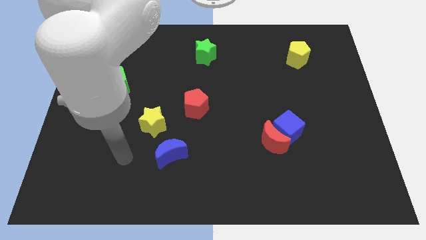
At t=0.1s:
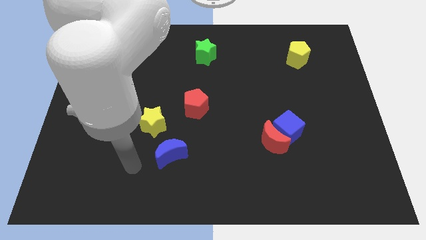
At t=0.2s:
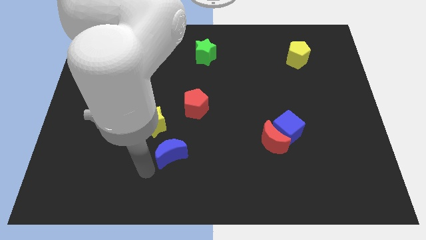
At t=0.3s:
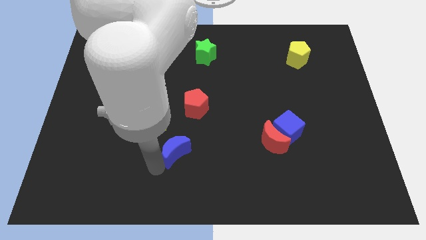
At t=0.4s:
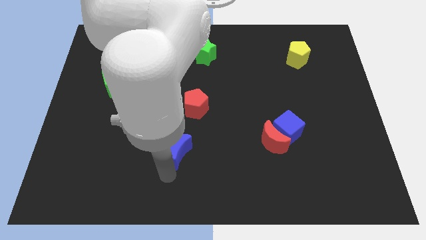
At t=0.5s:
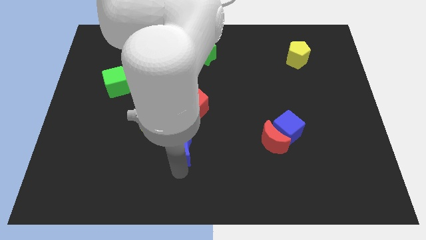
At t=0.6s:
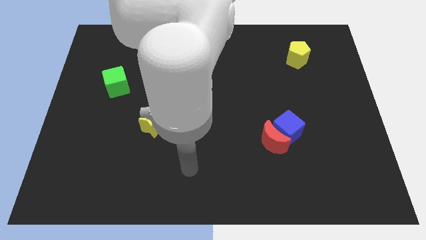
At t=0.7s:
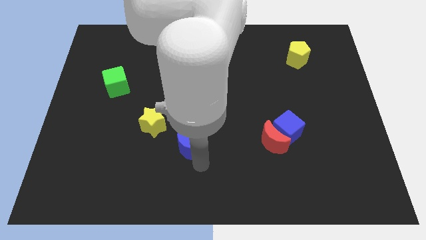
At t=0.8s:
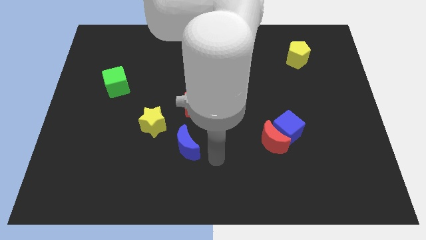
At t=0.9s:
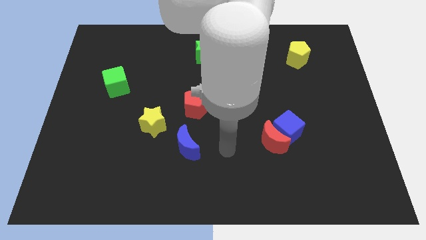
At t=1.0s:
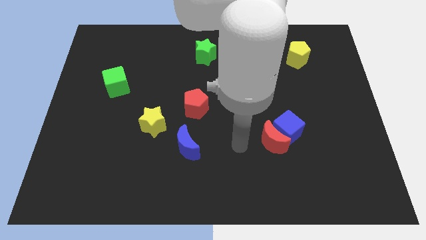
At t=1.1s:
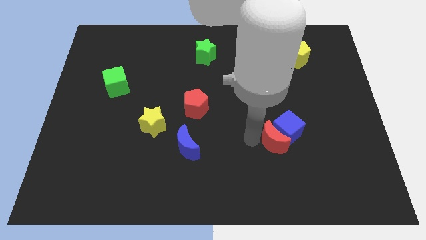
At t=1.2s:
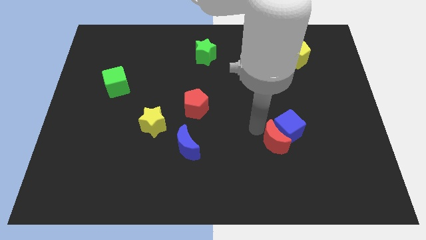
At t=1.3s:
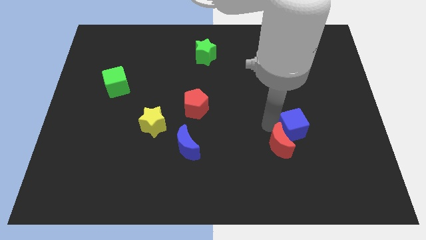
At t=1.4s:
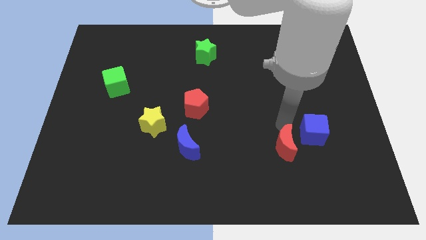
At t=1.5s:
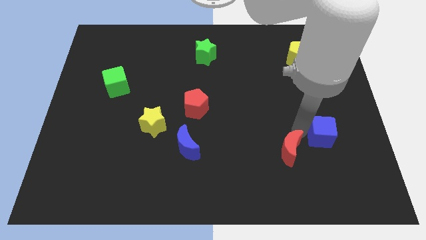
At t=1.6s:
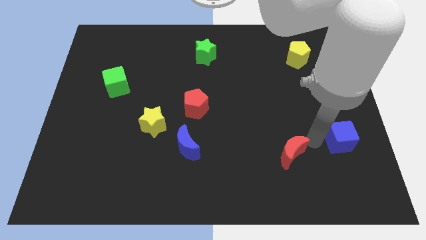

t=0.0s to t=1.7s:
separate the red moon from the blue cube

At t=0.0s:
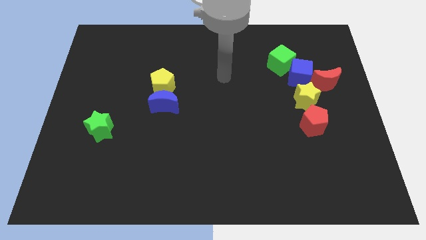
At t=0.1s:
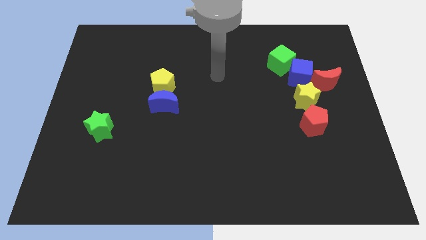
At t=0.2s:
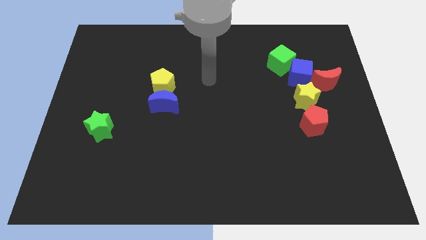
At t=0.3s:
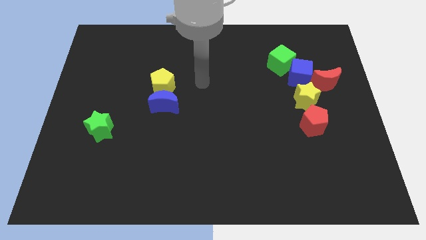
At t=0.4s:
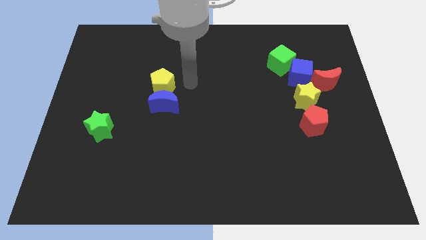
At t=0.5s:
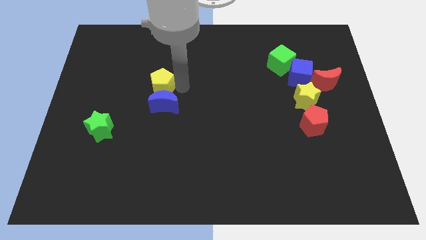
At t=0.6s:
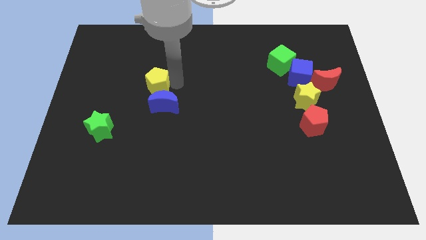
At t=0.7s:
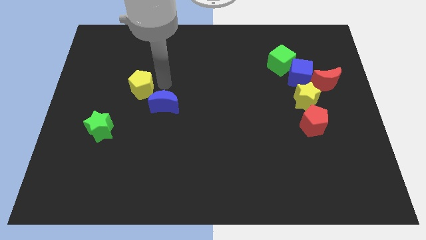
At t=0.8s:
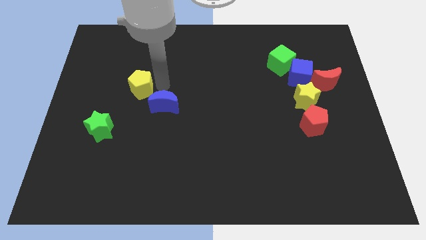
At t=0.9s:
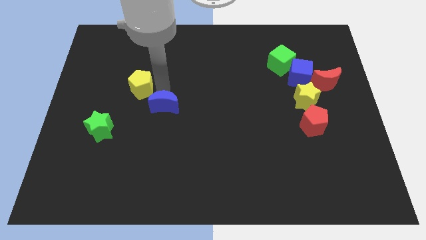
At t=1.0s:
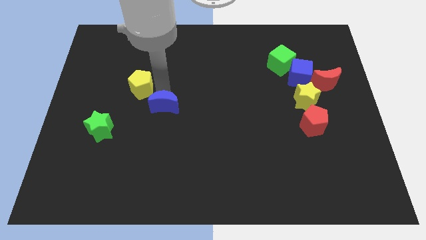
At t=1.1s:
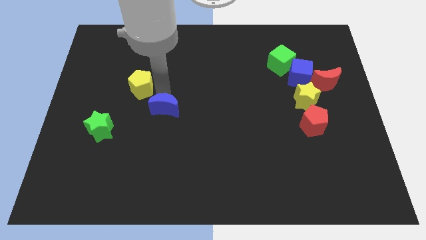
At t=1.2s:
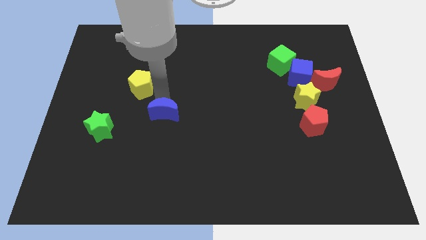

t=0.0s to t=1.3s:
move the blue moon away from the yellow pentagon

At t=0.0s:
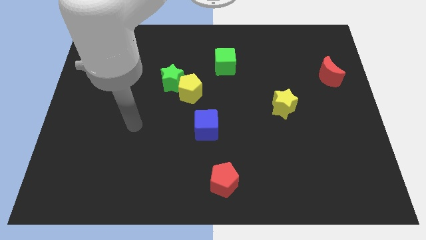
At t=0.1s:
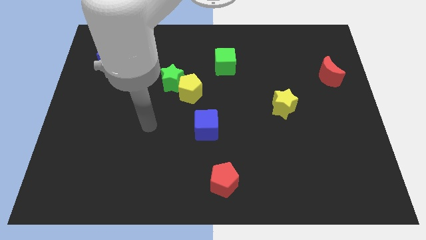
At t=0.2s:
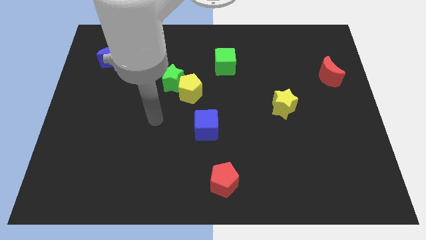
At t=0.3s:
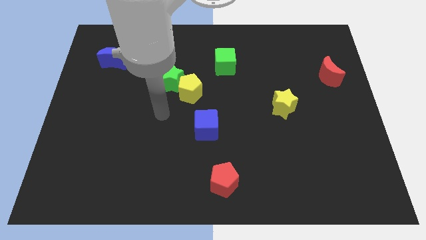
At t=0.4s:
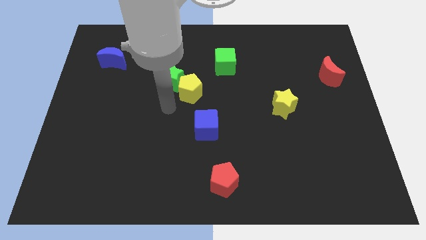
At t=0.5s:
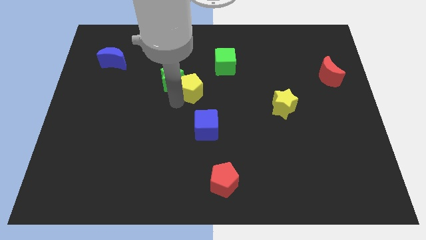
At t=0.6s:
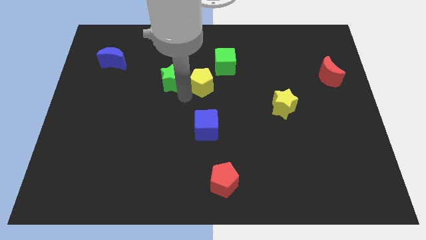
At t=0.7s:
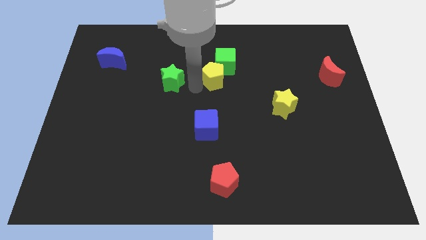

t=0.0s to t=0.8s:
pull the green star apart from the yellow pentagon

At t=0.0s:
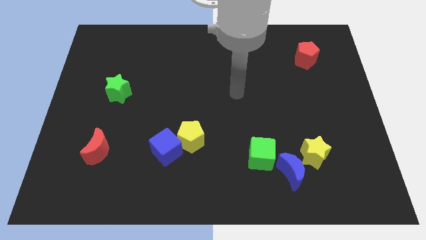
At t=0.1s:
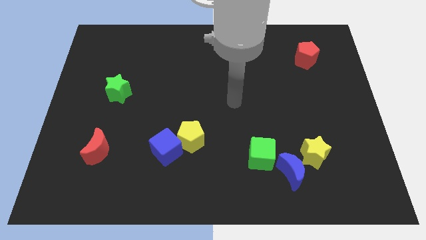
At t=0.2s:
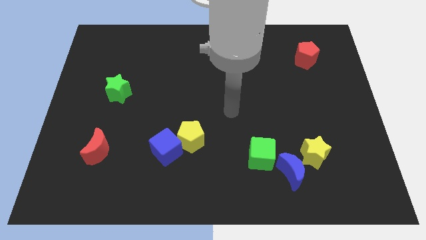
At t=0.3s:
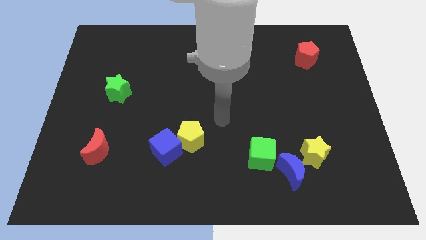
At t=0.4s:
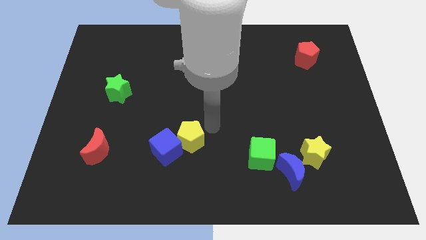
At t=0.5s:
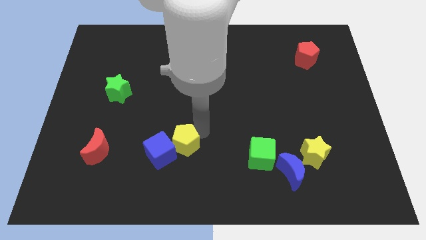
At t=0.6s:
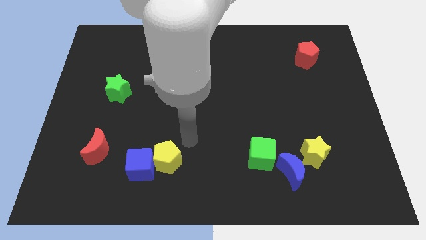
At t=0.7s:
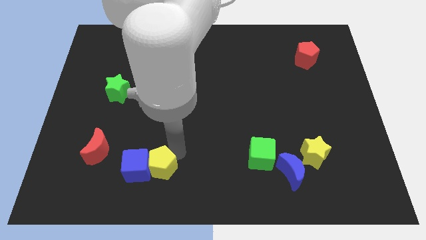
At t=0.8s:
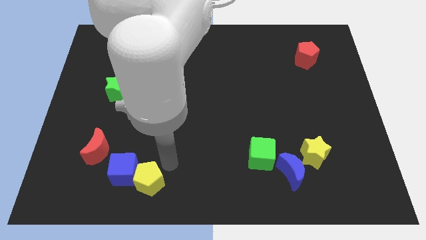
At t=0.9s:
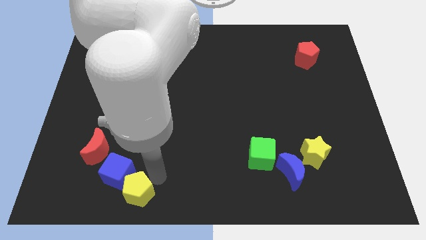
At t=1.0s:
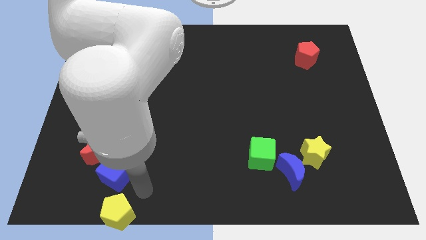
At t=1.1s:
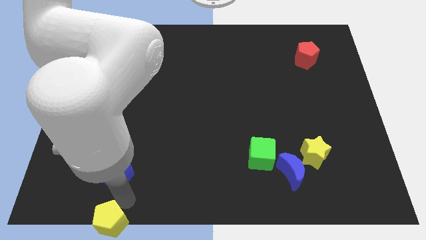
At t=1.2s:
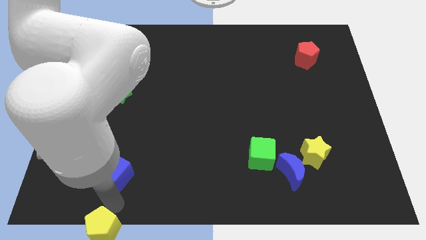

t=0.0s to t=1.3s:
separate the blue cube from the yellow pentagon

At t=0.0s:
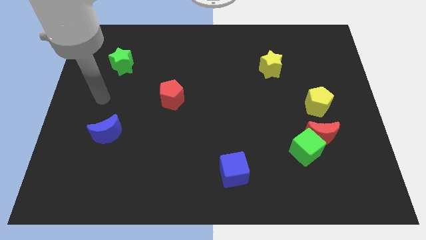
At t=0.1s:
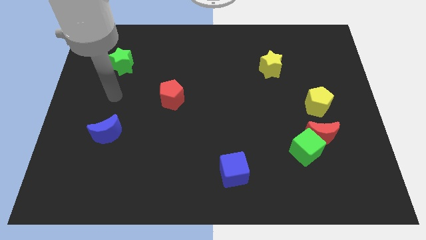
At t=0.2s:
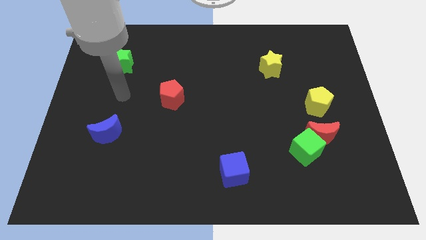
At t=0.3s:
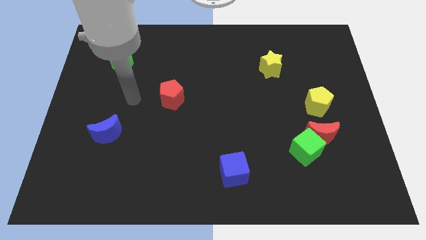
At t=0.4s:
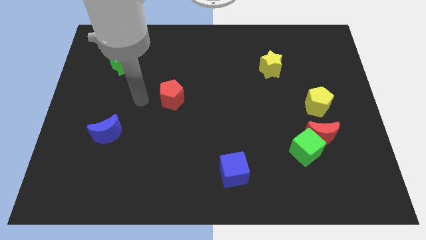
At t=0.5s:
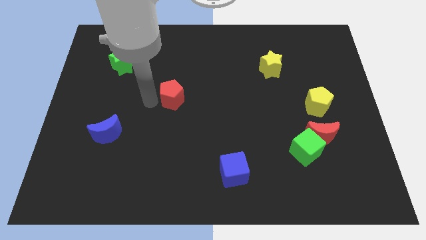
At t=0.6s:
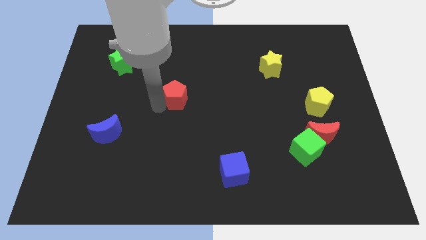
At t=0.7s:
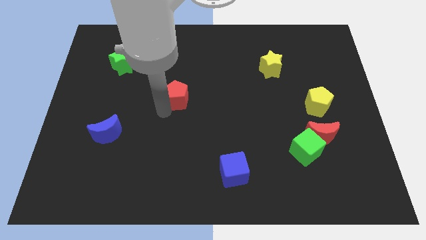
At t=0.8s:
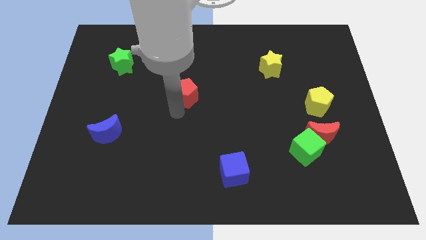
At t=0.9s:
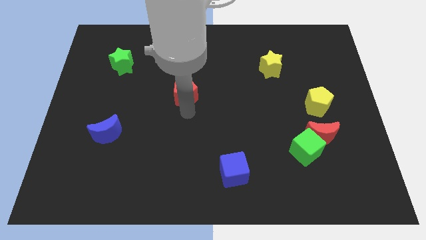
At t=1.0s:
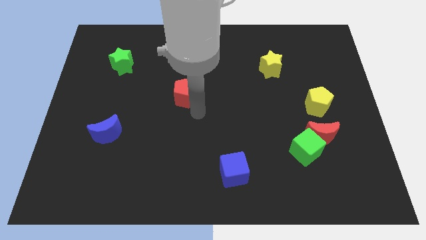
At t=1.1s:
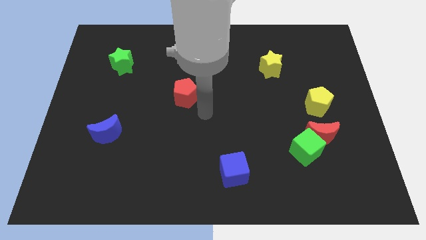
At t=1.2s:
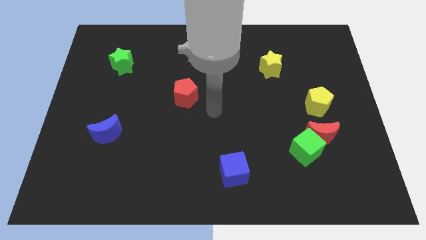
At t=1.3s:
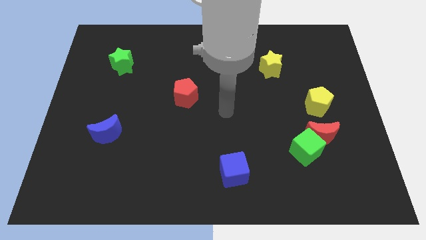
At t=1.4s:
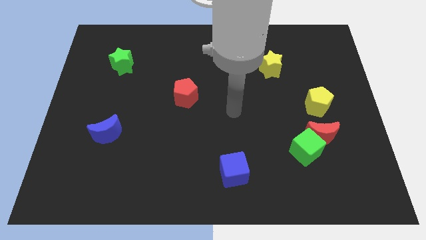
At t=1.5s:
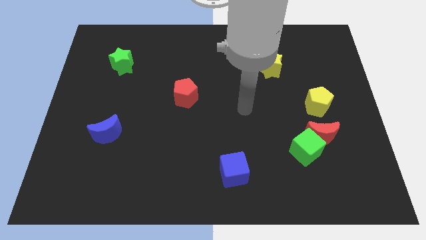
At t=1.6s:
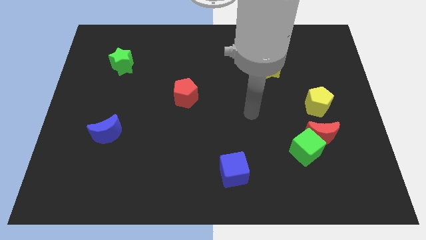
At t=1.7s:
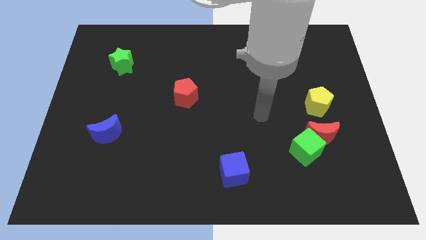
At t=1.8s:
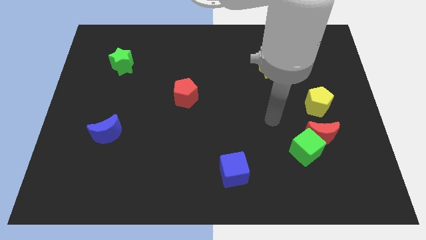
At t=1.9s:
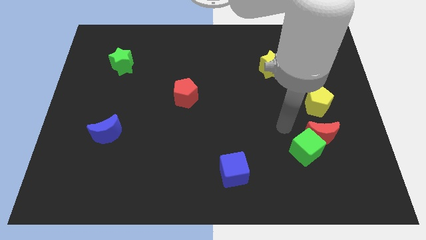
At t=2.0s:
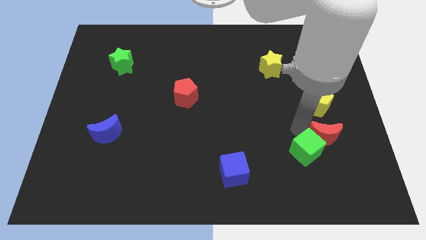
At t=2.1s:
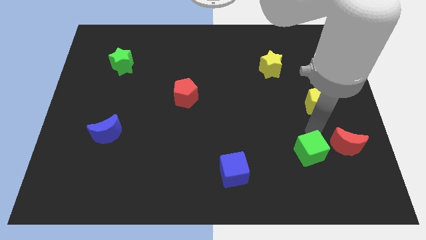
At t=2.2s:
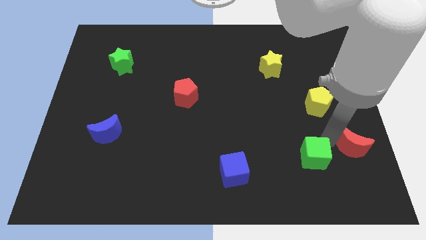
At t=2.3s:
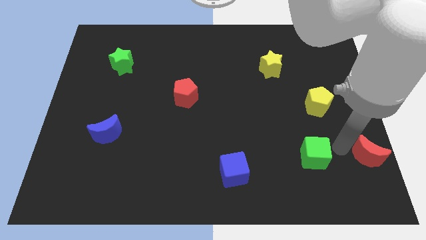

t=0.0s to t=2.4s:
separate the green cube from the red moon

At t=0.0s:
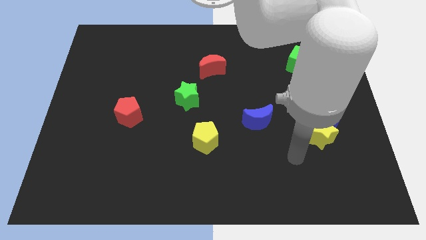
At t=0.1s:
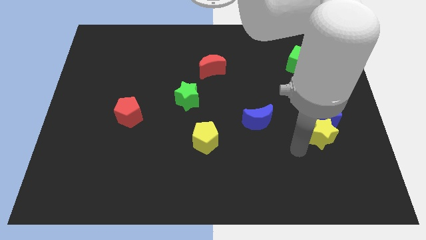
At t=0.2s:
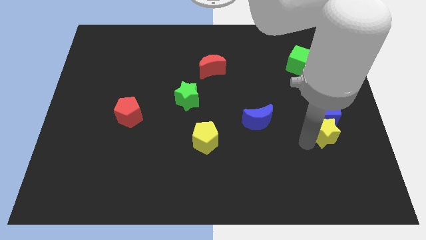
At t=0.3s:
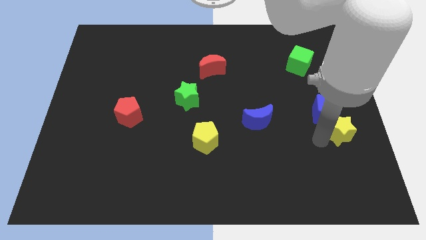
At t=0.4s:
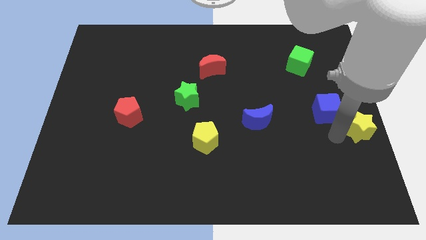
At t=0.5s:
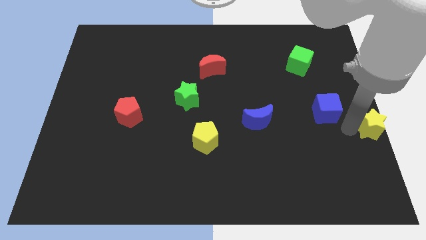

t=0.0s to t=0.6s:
pull the blue cube apart from the yellow star

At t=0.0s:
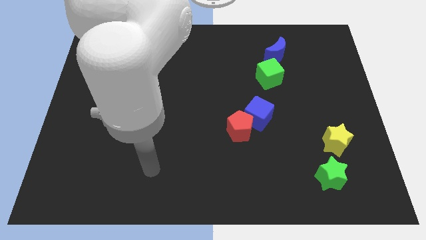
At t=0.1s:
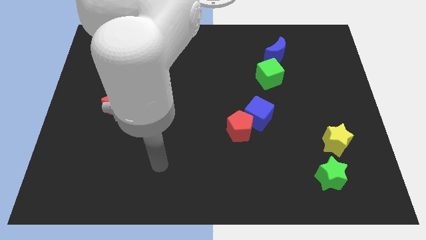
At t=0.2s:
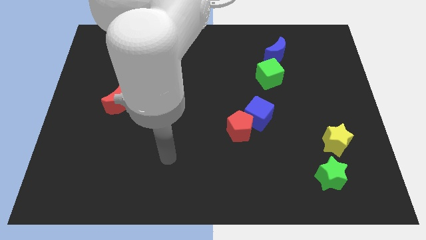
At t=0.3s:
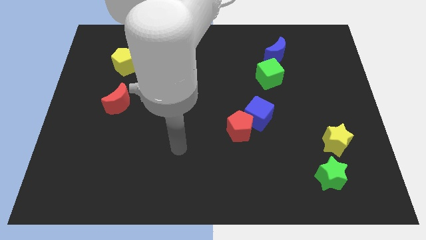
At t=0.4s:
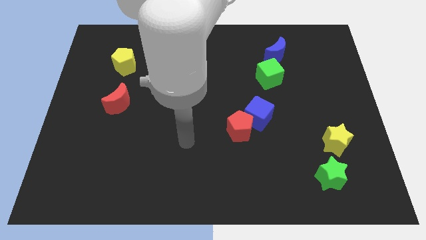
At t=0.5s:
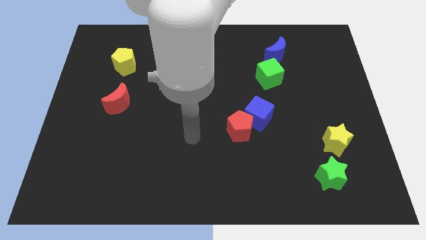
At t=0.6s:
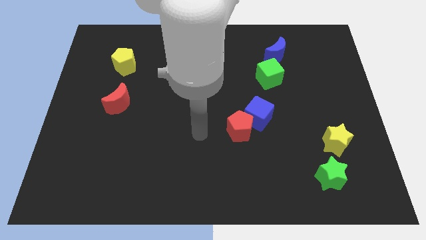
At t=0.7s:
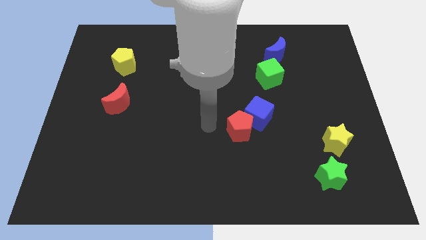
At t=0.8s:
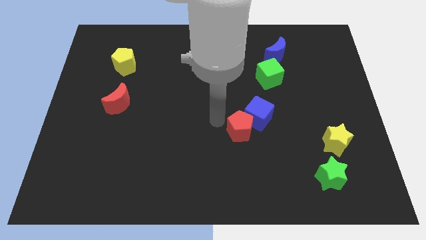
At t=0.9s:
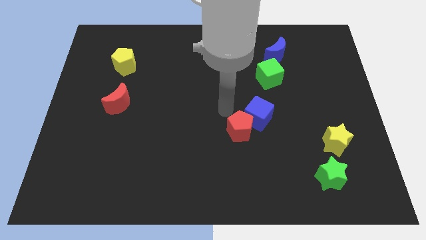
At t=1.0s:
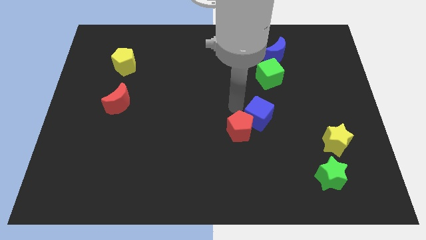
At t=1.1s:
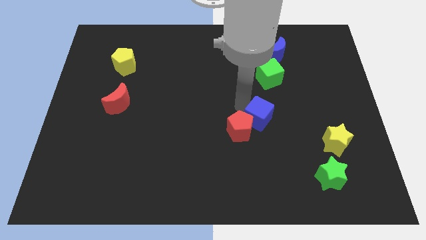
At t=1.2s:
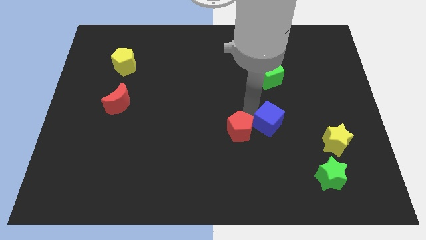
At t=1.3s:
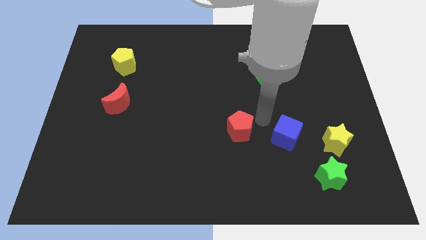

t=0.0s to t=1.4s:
move the red pentagon away from the blue cube
